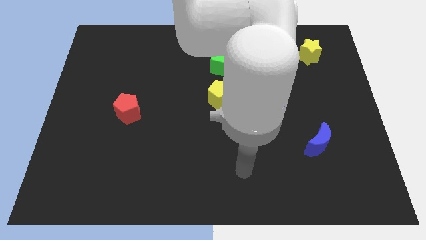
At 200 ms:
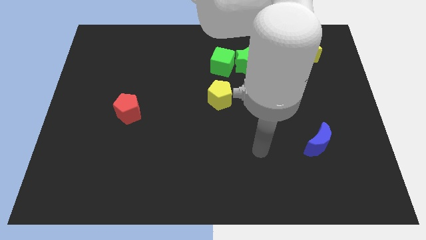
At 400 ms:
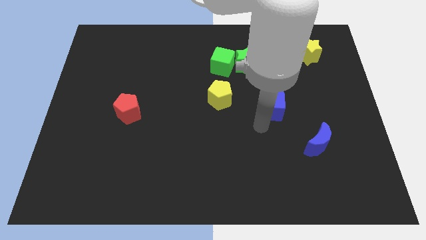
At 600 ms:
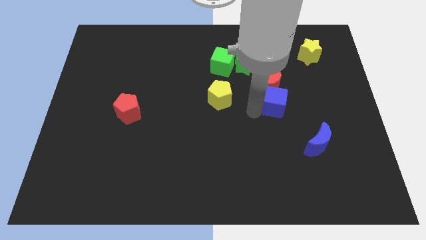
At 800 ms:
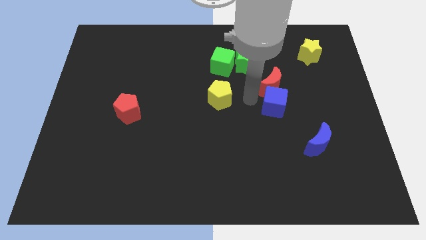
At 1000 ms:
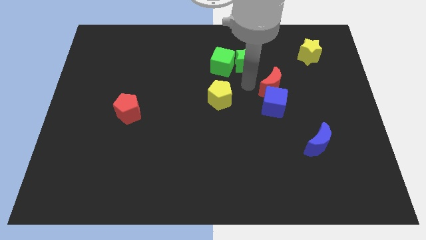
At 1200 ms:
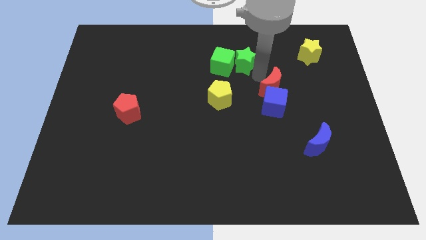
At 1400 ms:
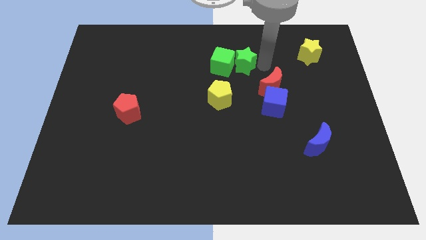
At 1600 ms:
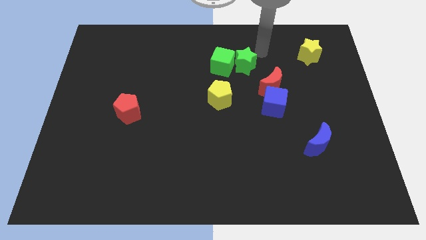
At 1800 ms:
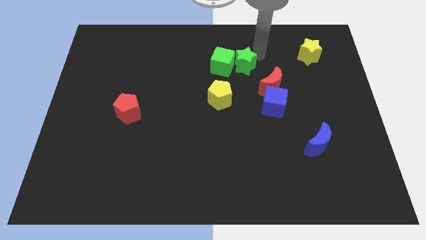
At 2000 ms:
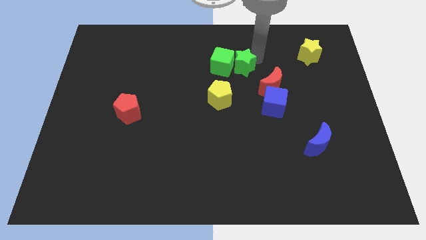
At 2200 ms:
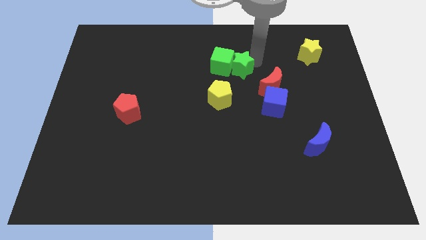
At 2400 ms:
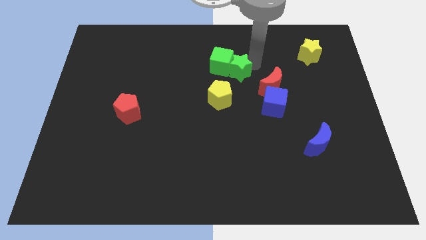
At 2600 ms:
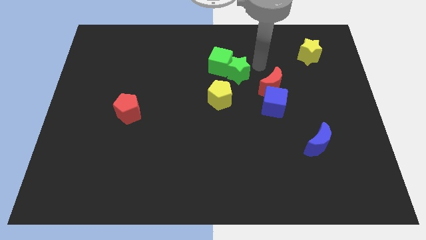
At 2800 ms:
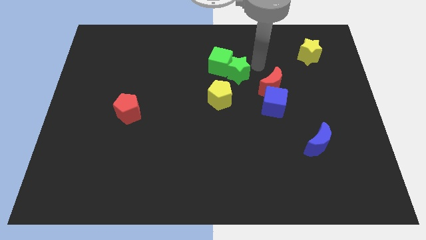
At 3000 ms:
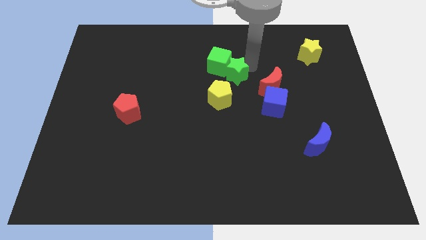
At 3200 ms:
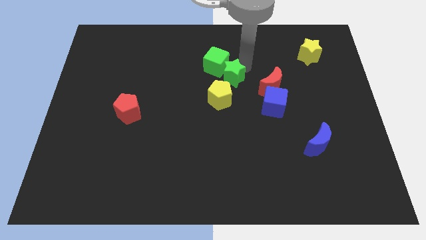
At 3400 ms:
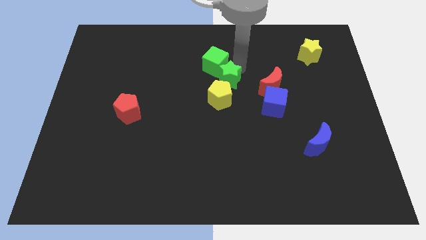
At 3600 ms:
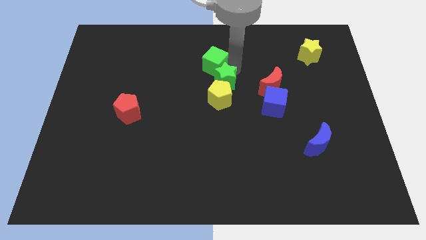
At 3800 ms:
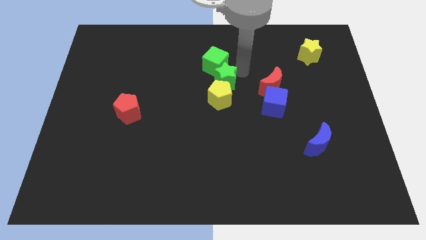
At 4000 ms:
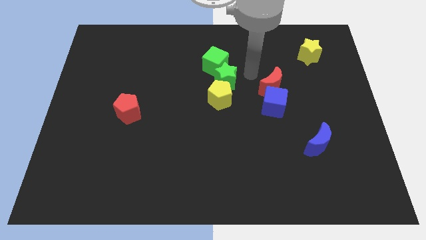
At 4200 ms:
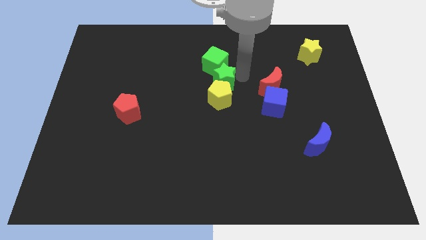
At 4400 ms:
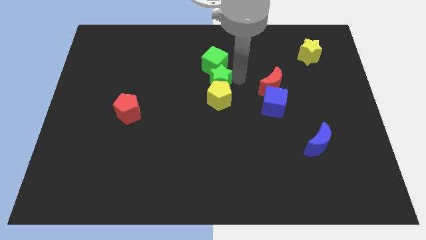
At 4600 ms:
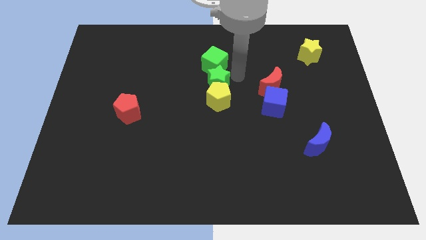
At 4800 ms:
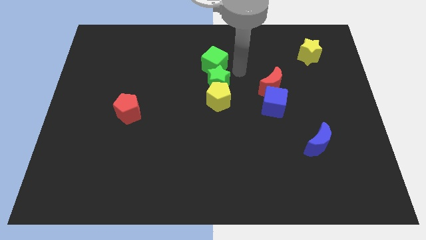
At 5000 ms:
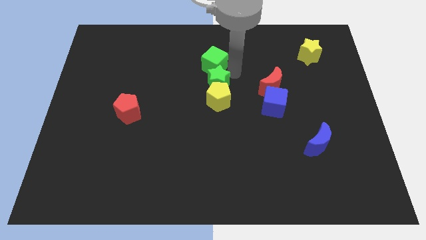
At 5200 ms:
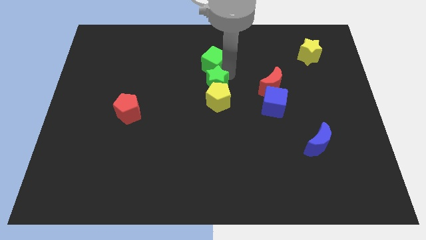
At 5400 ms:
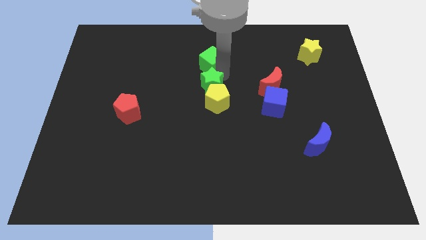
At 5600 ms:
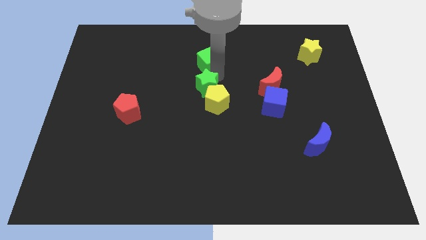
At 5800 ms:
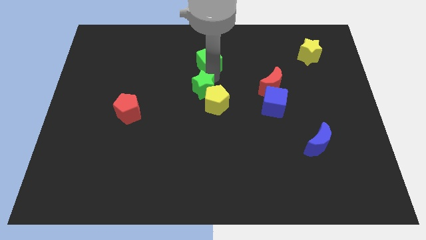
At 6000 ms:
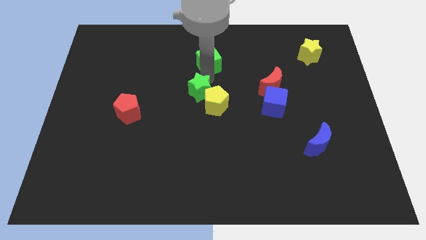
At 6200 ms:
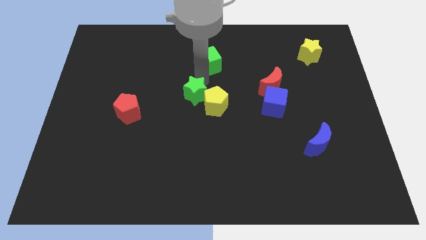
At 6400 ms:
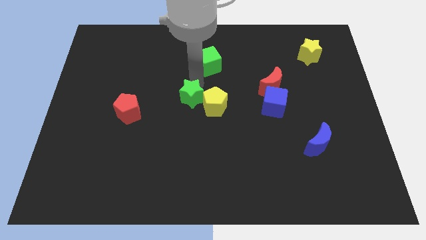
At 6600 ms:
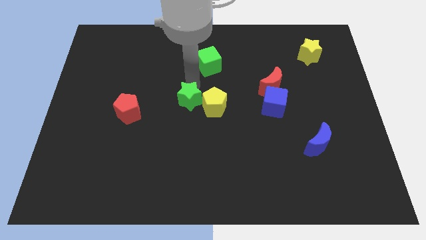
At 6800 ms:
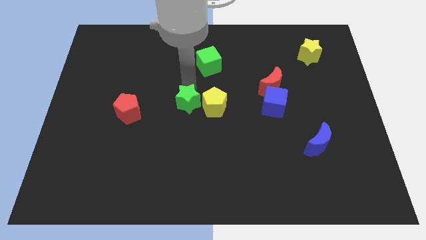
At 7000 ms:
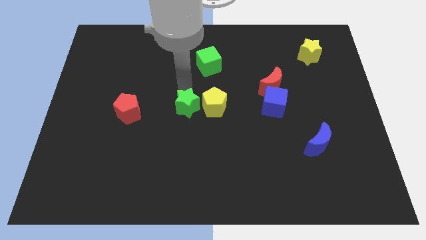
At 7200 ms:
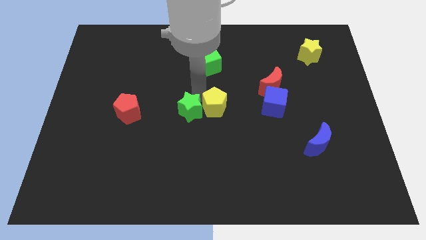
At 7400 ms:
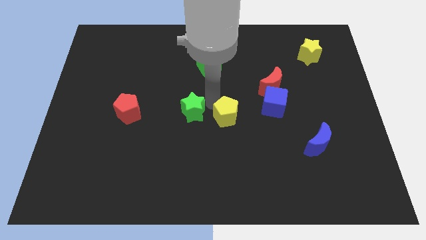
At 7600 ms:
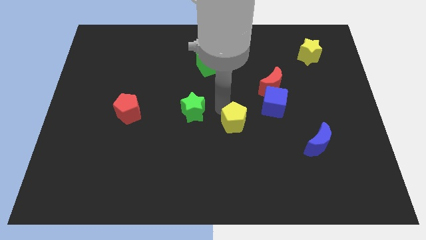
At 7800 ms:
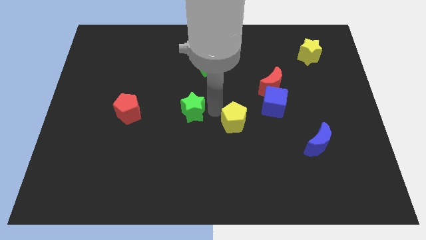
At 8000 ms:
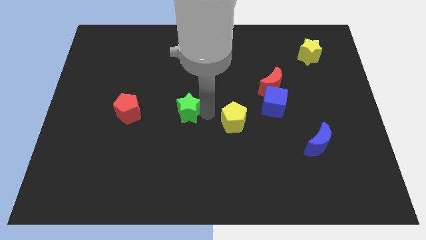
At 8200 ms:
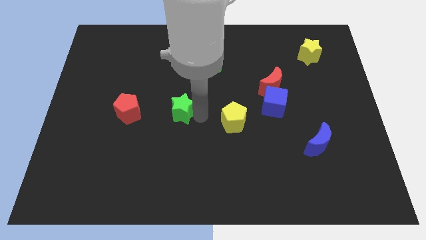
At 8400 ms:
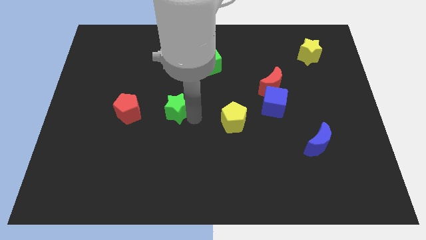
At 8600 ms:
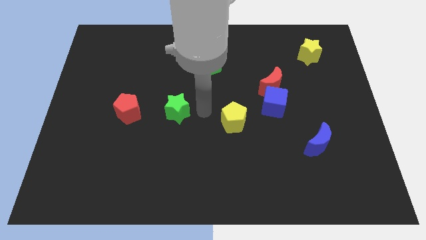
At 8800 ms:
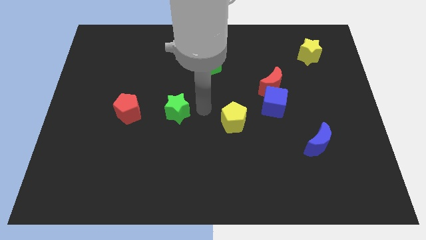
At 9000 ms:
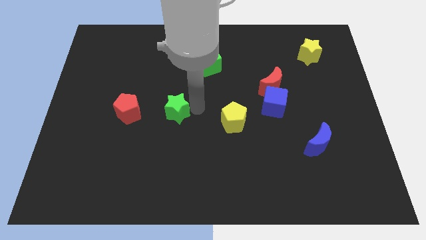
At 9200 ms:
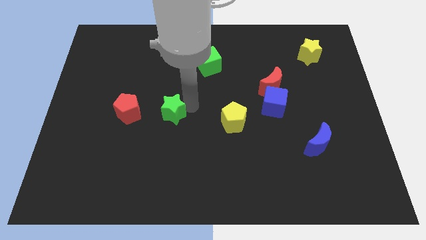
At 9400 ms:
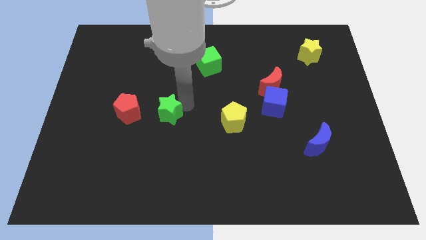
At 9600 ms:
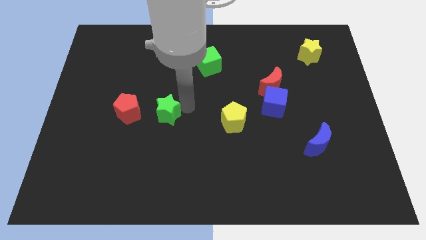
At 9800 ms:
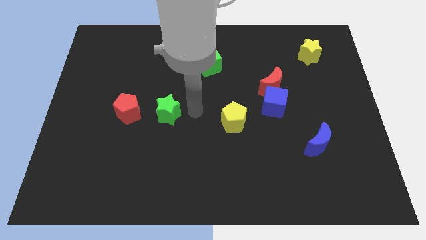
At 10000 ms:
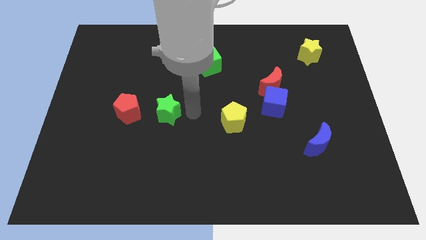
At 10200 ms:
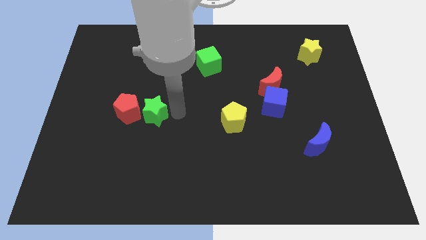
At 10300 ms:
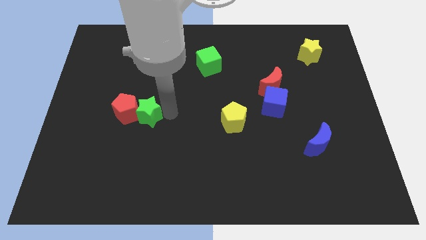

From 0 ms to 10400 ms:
push the green star next to the red pentagon

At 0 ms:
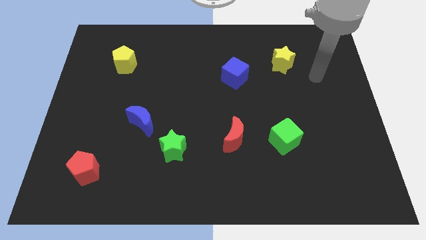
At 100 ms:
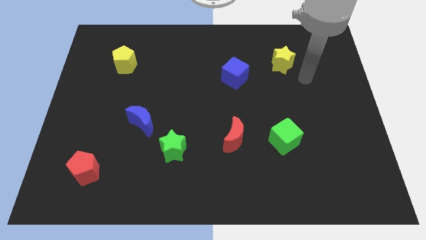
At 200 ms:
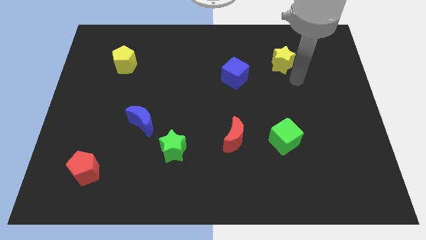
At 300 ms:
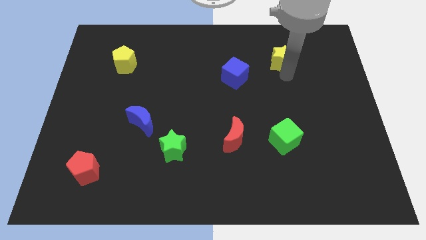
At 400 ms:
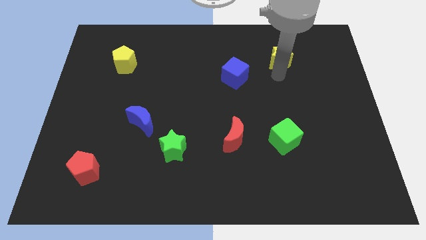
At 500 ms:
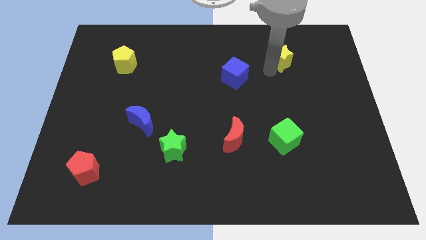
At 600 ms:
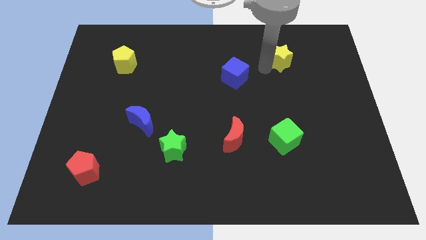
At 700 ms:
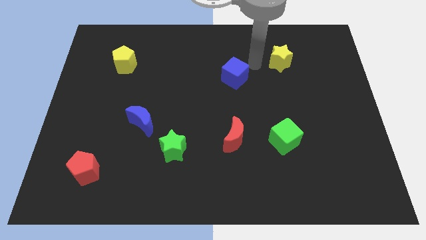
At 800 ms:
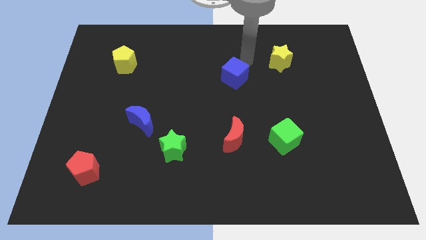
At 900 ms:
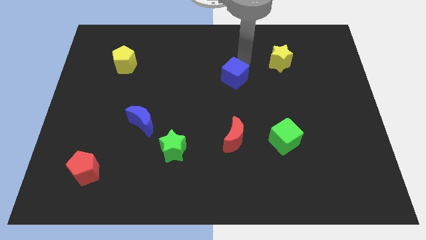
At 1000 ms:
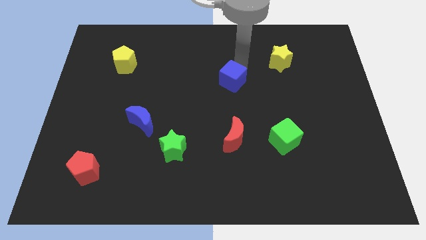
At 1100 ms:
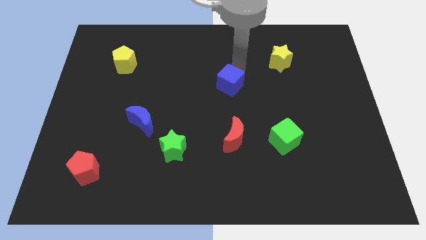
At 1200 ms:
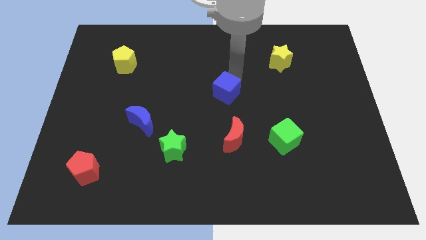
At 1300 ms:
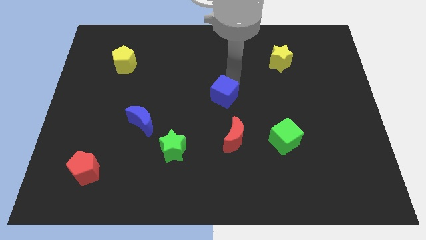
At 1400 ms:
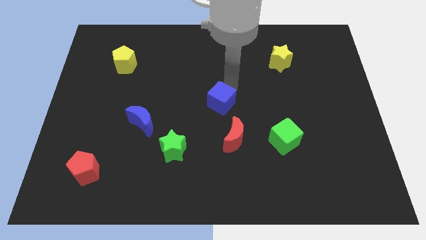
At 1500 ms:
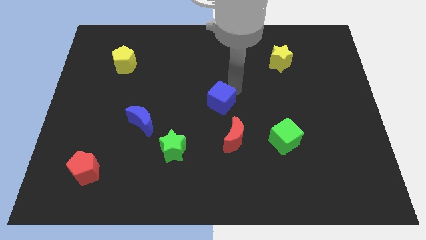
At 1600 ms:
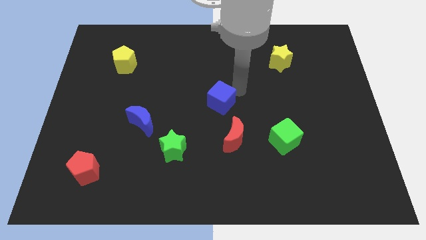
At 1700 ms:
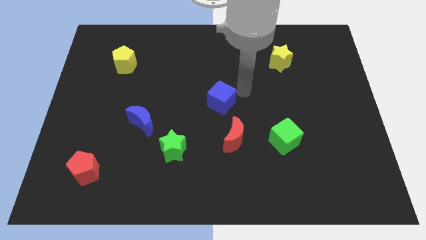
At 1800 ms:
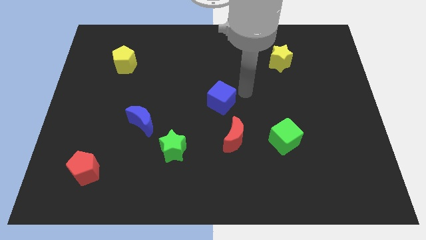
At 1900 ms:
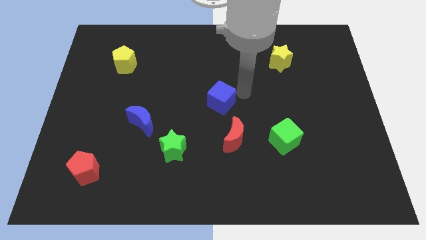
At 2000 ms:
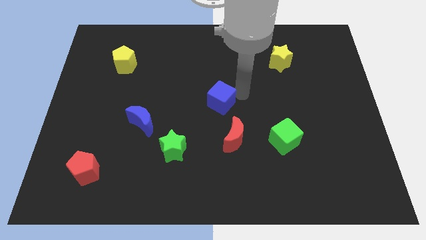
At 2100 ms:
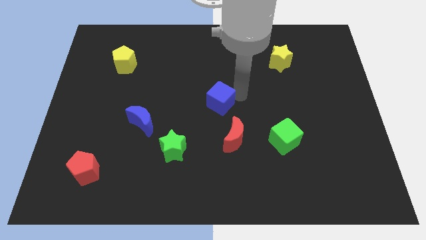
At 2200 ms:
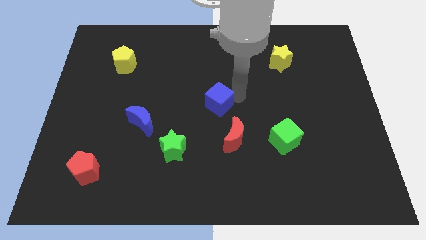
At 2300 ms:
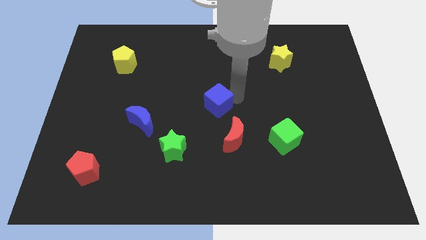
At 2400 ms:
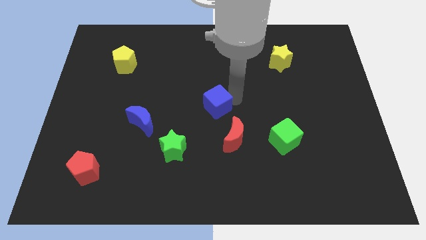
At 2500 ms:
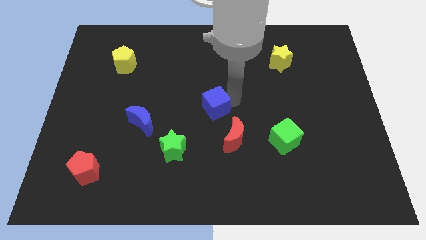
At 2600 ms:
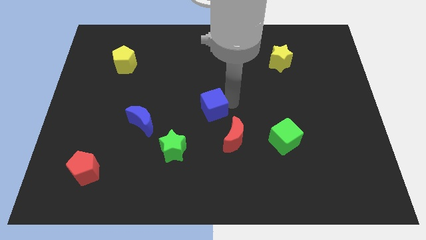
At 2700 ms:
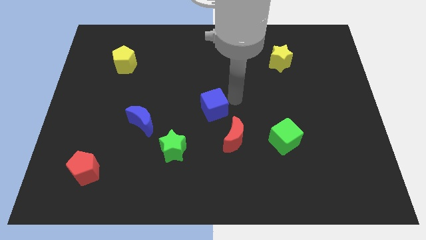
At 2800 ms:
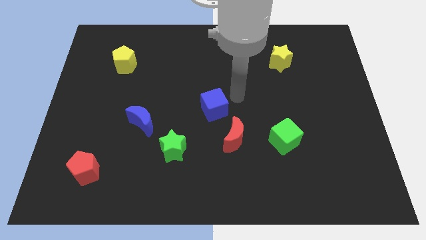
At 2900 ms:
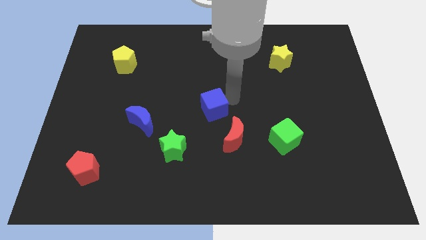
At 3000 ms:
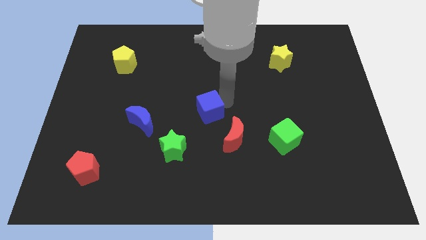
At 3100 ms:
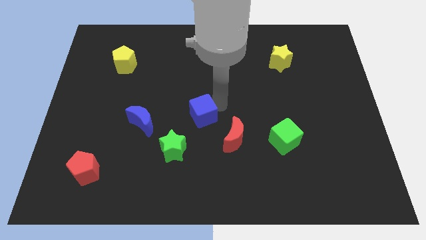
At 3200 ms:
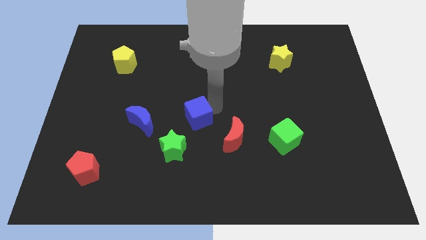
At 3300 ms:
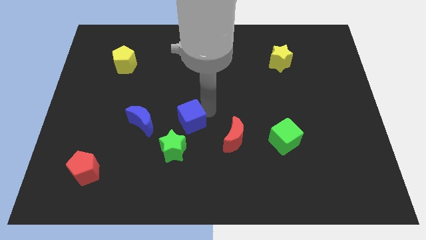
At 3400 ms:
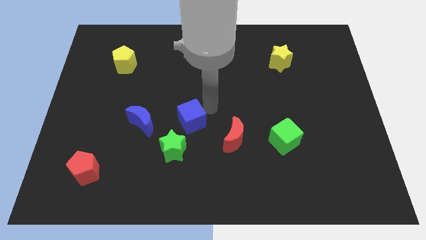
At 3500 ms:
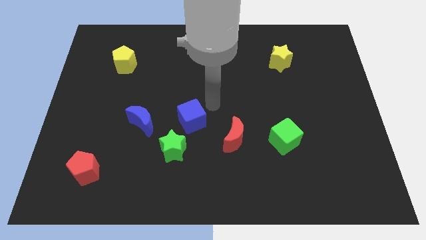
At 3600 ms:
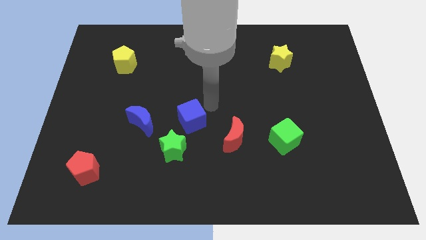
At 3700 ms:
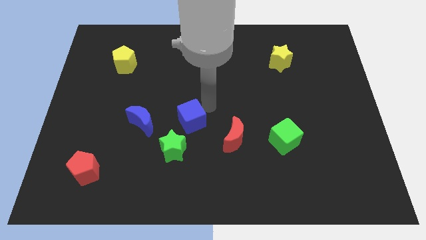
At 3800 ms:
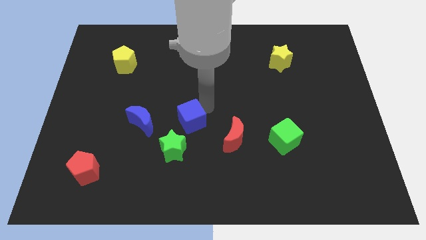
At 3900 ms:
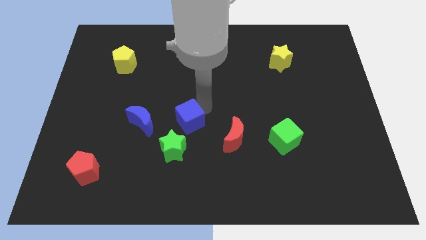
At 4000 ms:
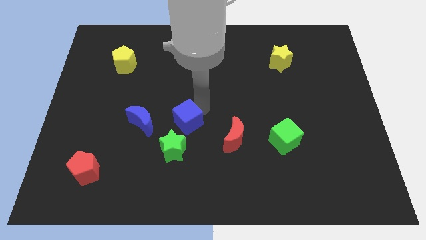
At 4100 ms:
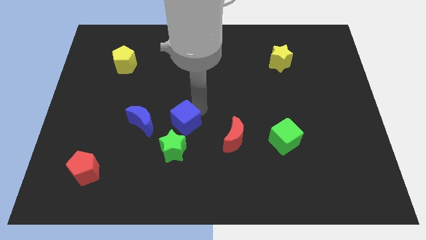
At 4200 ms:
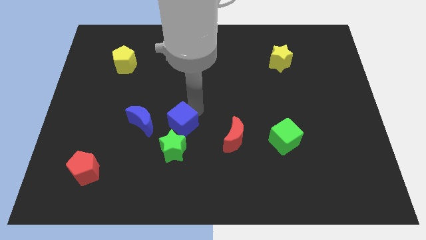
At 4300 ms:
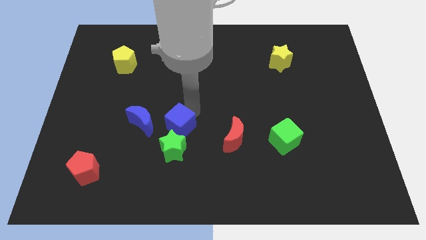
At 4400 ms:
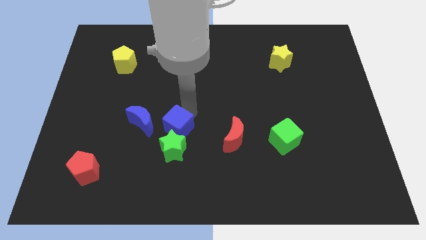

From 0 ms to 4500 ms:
put the blue cube close to the green star
